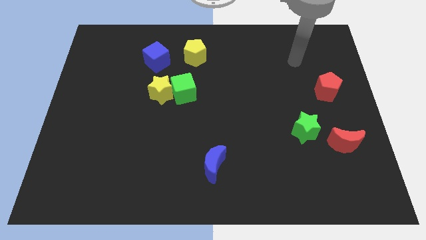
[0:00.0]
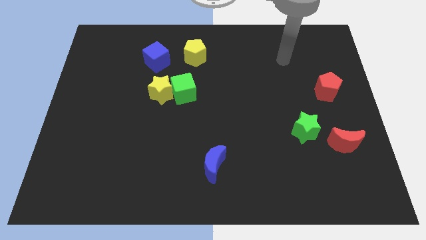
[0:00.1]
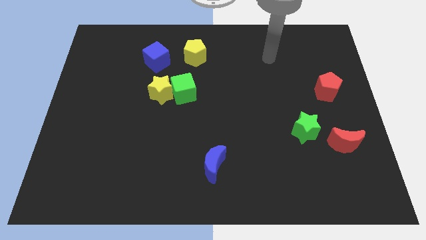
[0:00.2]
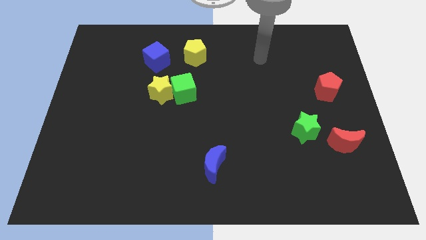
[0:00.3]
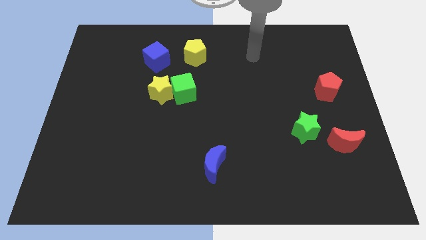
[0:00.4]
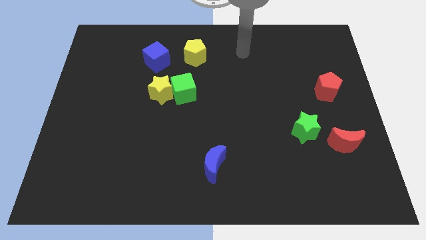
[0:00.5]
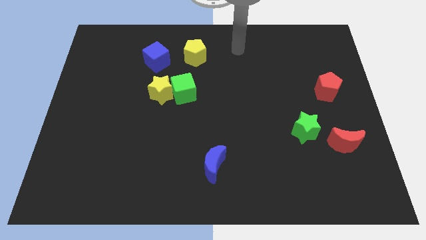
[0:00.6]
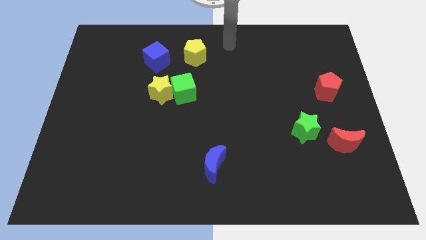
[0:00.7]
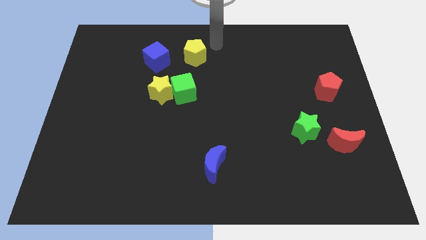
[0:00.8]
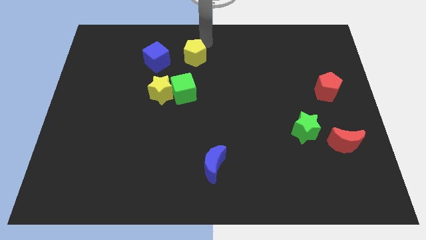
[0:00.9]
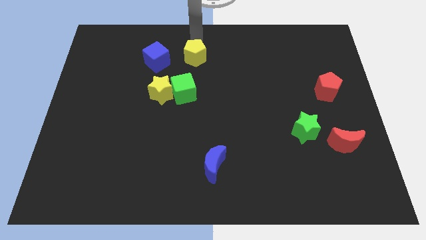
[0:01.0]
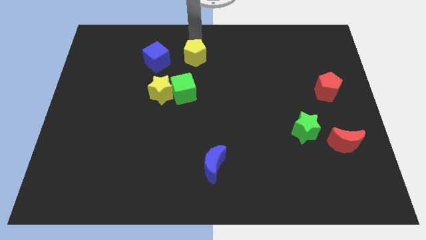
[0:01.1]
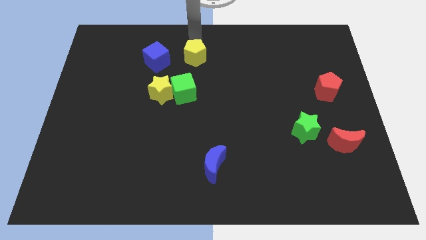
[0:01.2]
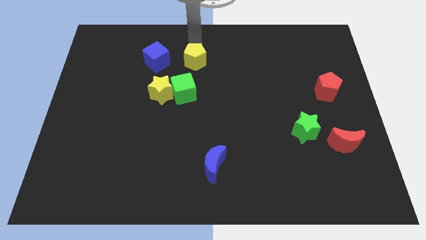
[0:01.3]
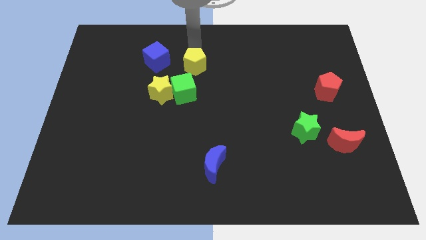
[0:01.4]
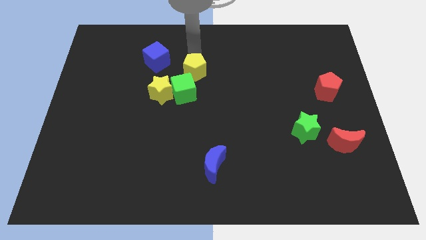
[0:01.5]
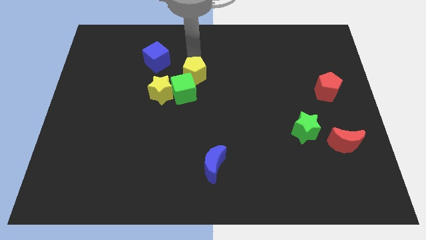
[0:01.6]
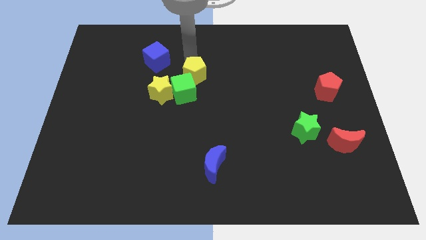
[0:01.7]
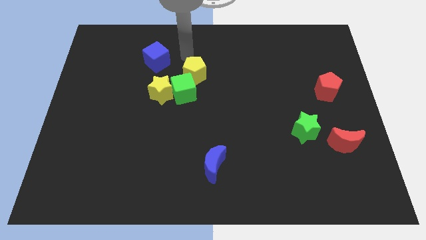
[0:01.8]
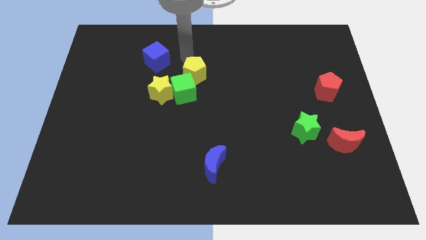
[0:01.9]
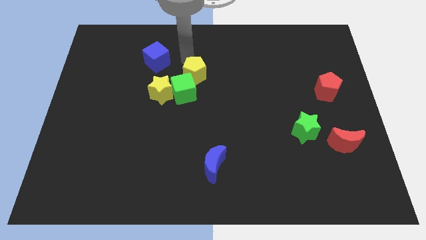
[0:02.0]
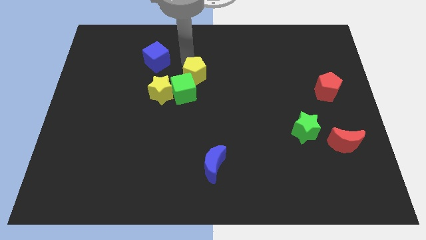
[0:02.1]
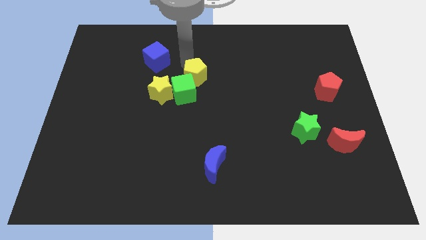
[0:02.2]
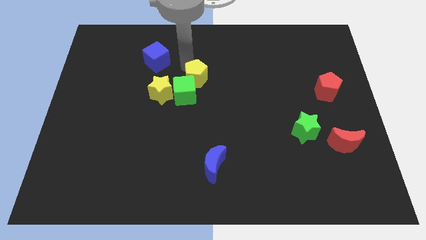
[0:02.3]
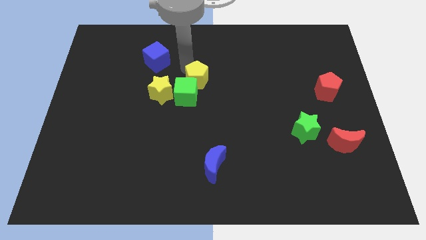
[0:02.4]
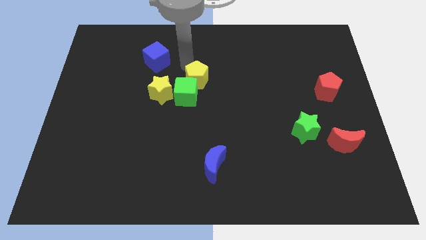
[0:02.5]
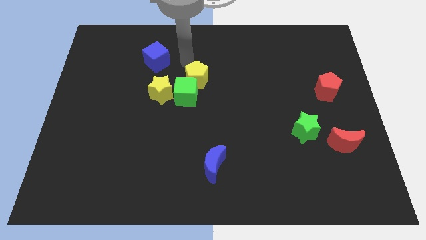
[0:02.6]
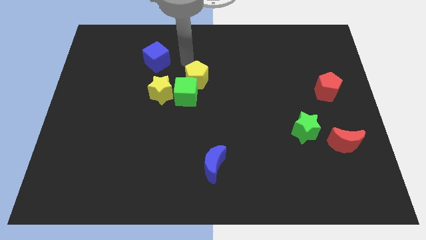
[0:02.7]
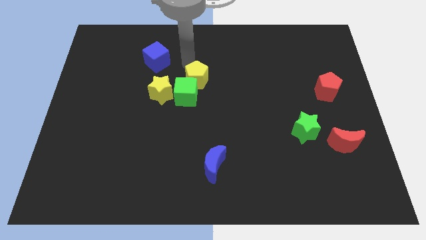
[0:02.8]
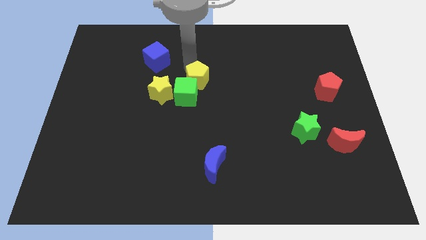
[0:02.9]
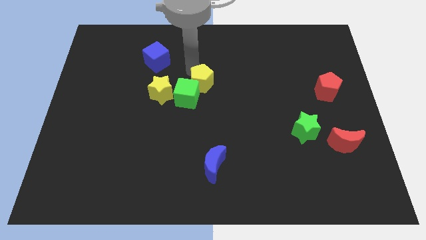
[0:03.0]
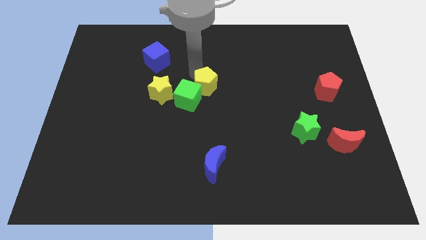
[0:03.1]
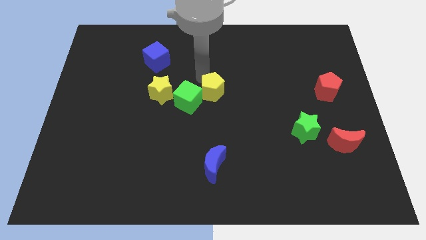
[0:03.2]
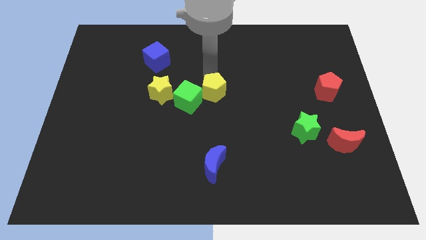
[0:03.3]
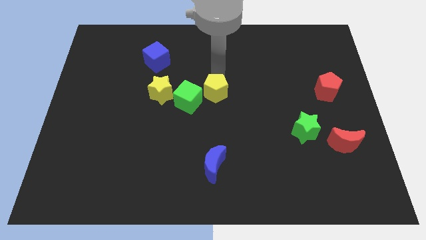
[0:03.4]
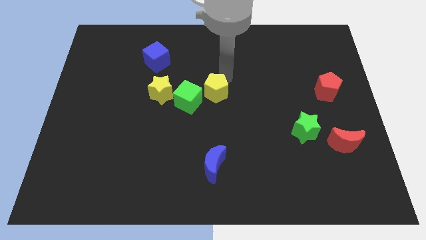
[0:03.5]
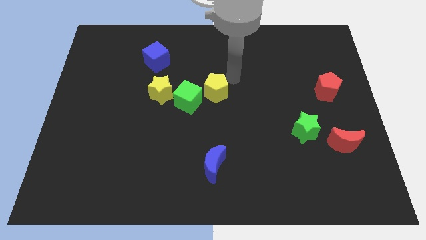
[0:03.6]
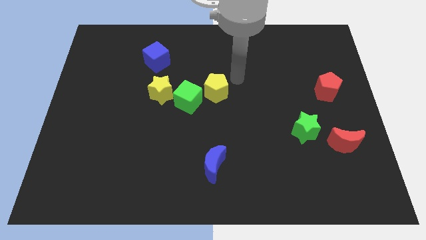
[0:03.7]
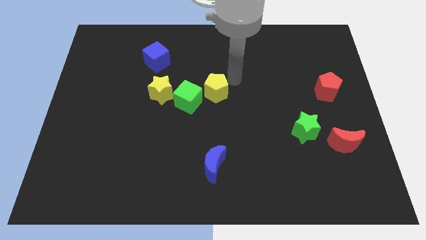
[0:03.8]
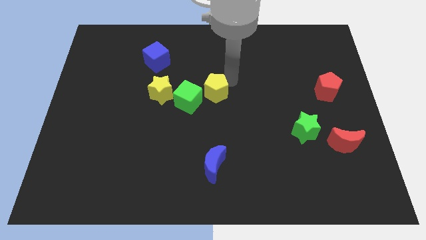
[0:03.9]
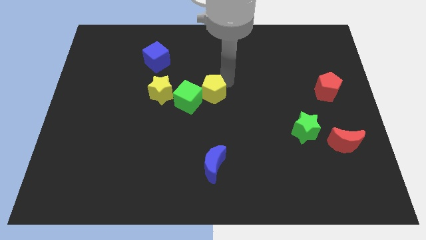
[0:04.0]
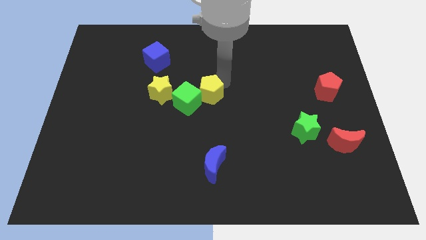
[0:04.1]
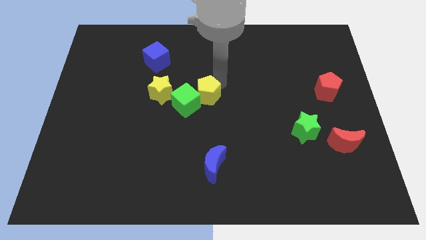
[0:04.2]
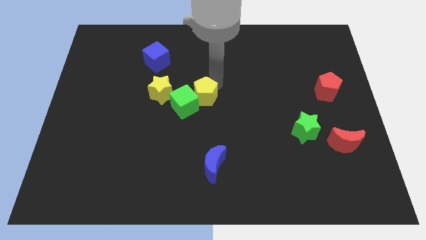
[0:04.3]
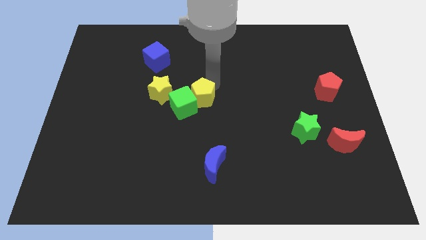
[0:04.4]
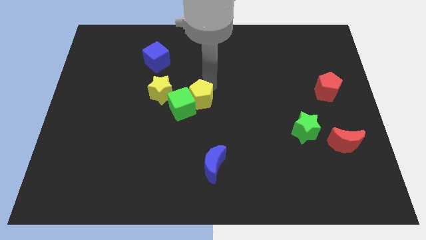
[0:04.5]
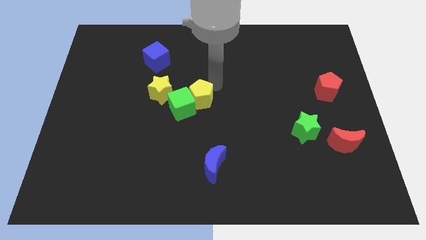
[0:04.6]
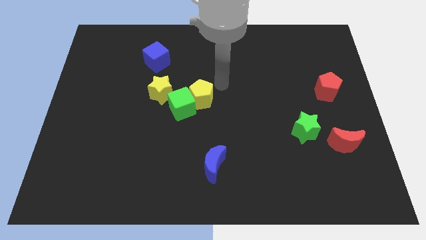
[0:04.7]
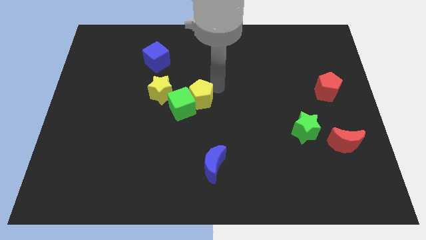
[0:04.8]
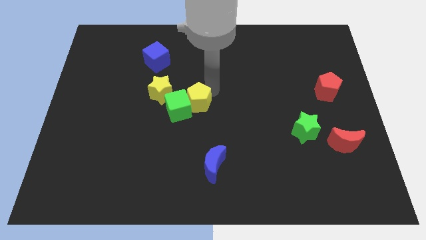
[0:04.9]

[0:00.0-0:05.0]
slide the yellow pentagon to the bottom right of the yellow star

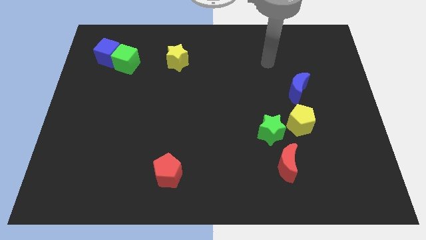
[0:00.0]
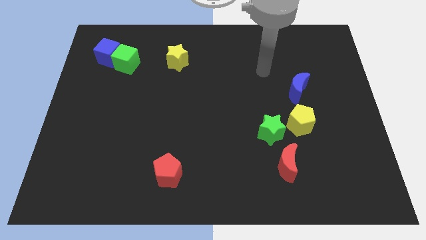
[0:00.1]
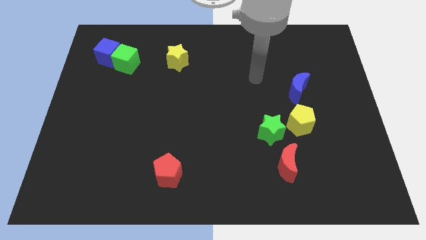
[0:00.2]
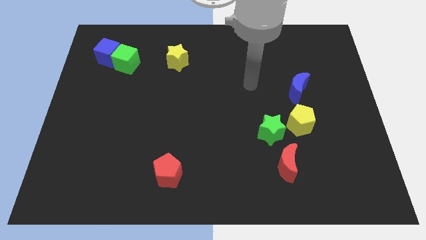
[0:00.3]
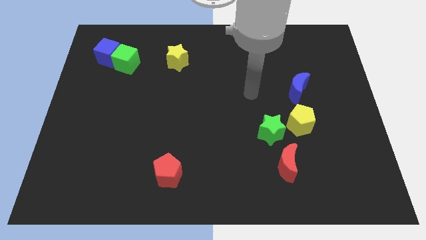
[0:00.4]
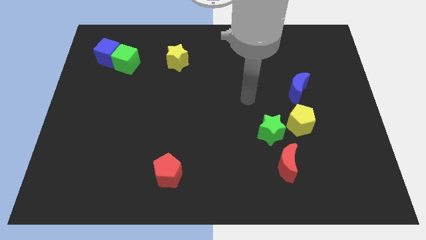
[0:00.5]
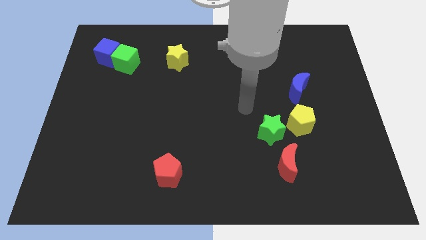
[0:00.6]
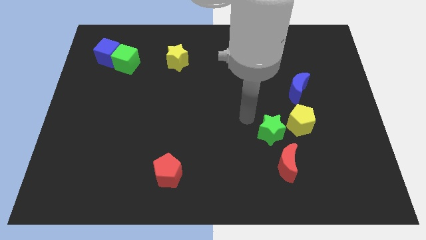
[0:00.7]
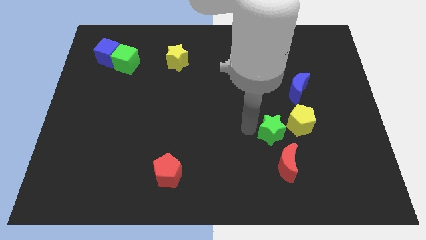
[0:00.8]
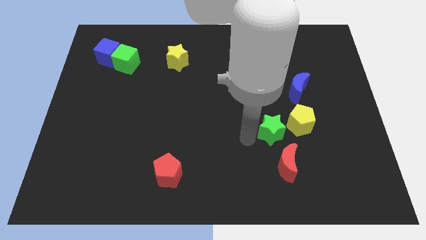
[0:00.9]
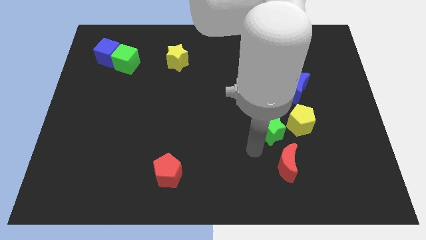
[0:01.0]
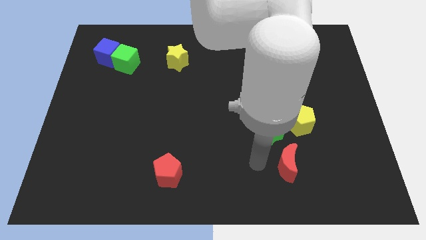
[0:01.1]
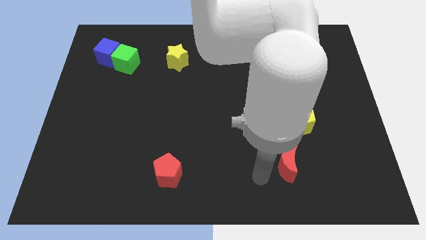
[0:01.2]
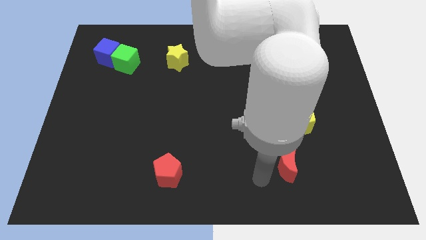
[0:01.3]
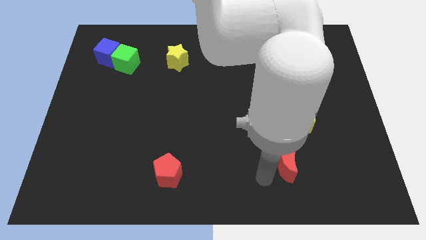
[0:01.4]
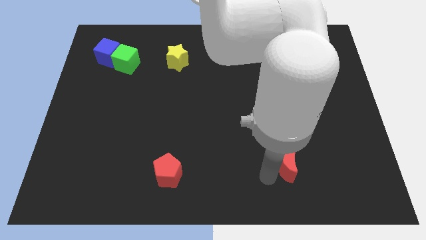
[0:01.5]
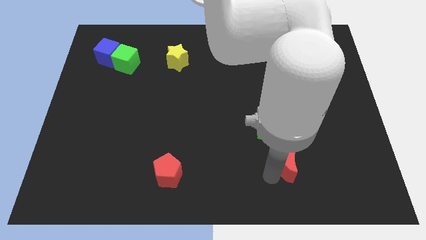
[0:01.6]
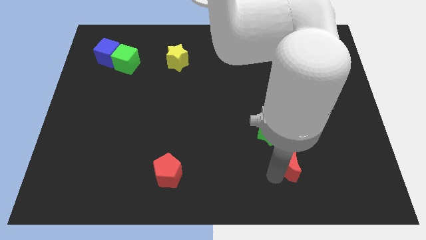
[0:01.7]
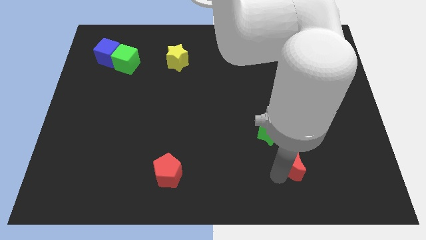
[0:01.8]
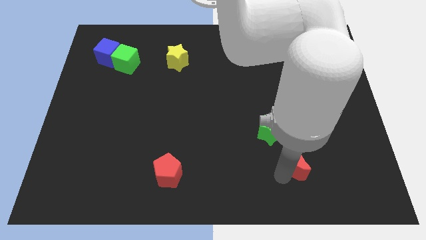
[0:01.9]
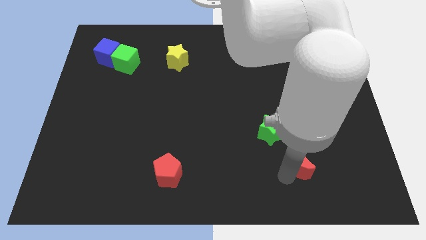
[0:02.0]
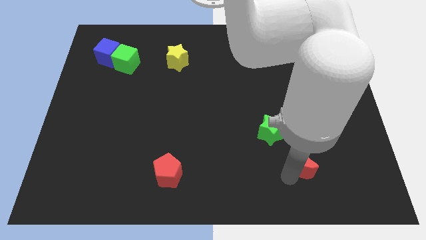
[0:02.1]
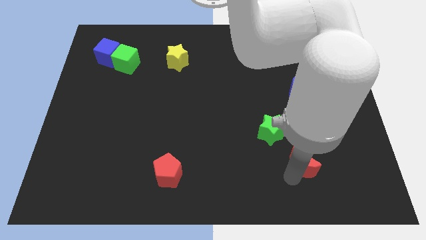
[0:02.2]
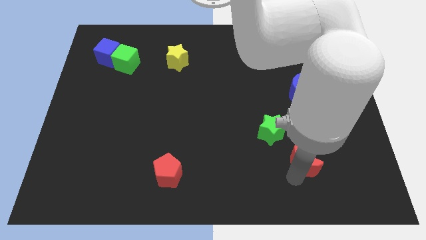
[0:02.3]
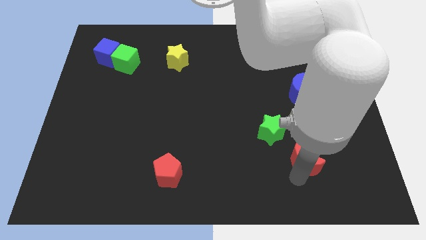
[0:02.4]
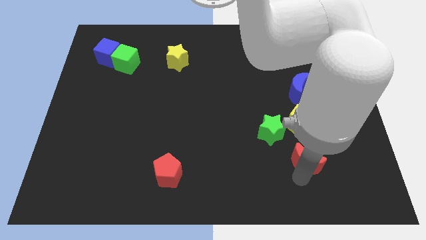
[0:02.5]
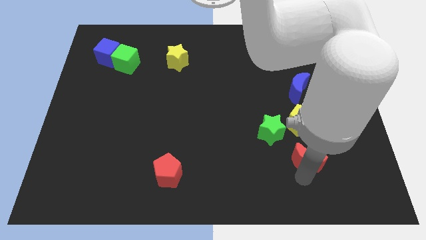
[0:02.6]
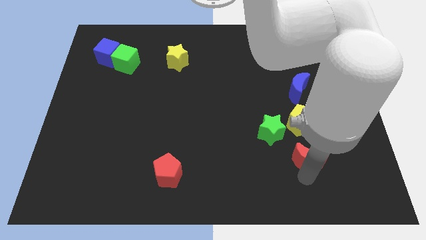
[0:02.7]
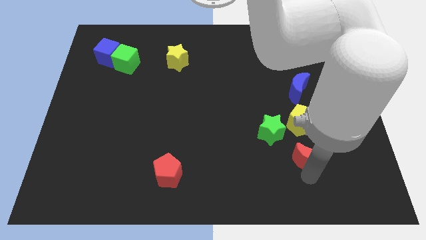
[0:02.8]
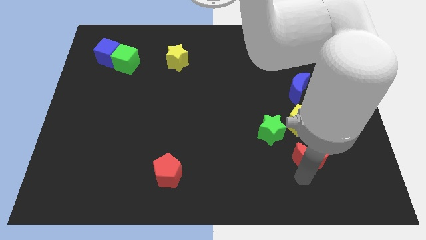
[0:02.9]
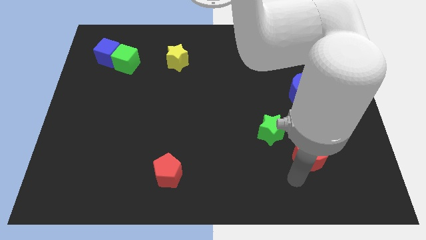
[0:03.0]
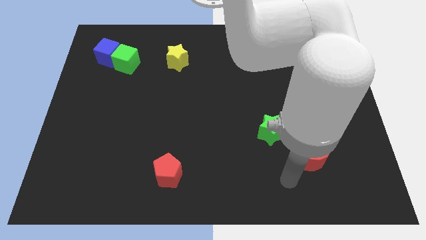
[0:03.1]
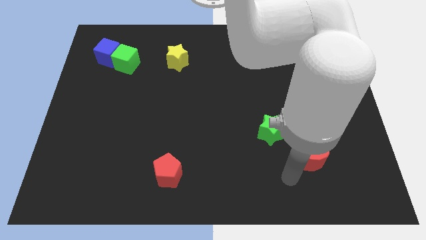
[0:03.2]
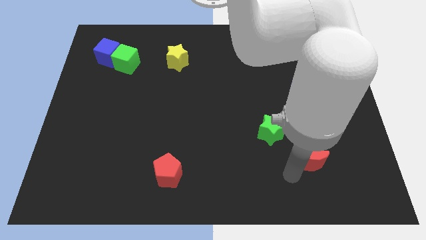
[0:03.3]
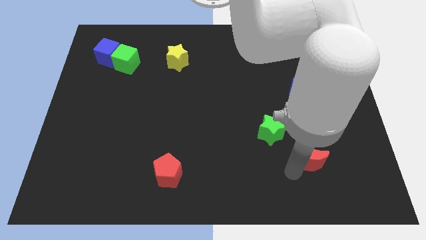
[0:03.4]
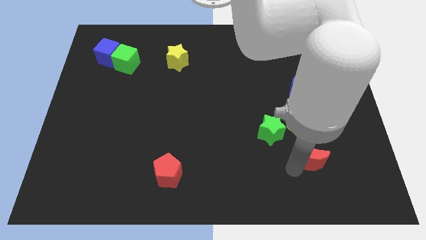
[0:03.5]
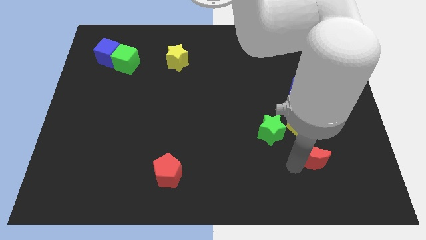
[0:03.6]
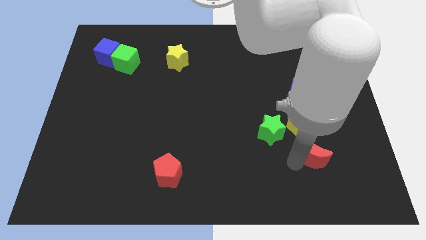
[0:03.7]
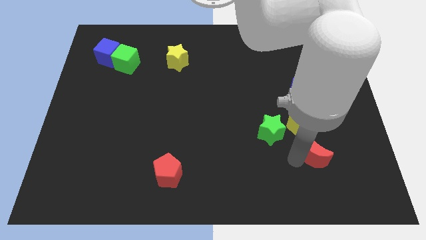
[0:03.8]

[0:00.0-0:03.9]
put the red moon diagonally down and to the right of the yellow pentagon
